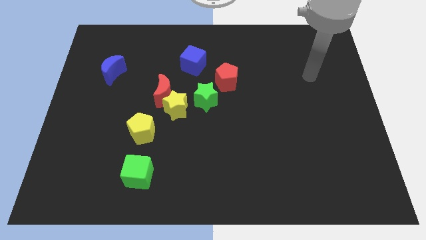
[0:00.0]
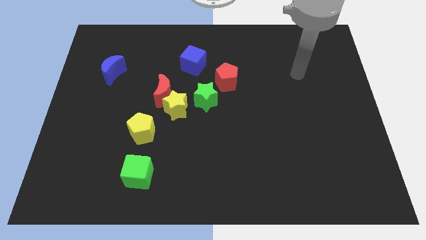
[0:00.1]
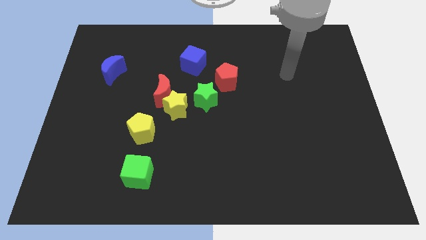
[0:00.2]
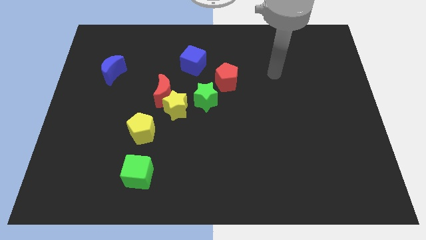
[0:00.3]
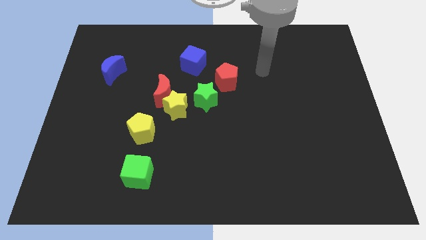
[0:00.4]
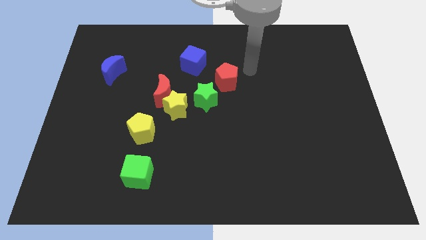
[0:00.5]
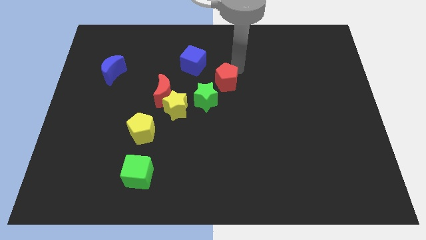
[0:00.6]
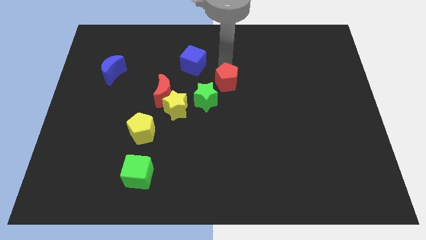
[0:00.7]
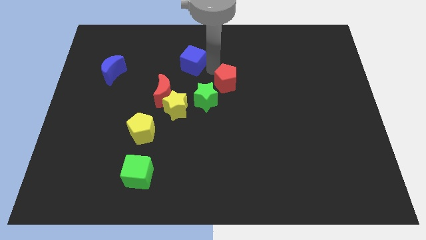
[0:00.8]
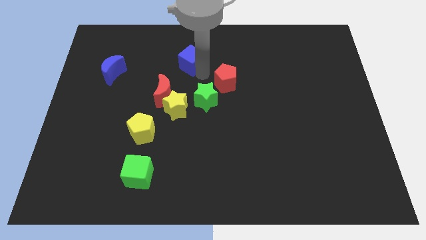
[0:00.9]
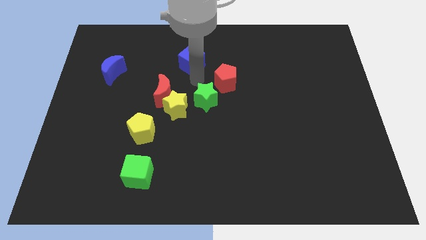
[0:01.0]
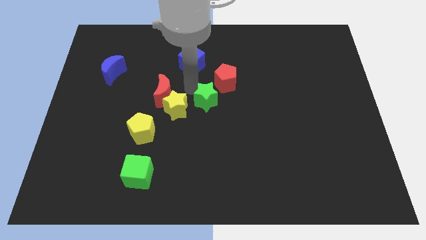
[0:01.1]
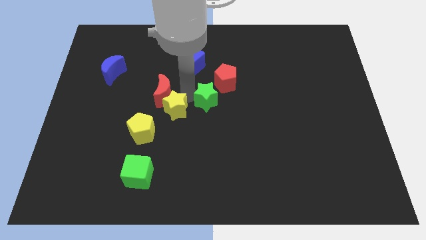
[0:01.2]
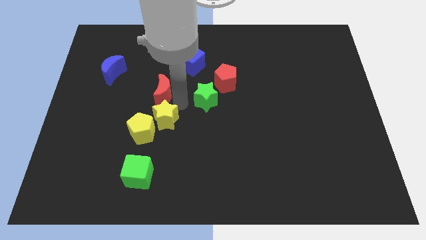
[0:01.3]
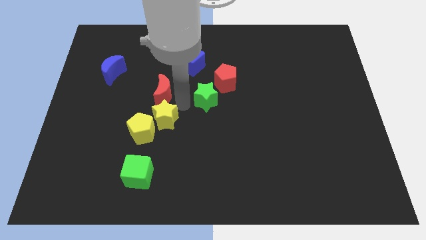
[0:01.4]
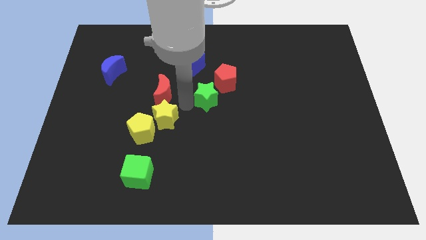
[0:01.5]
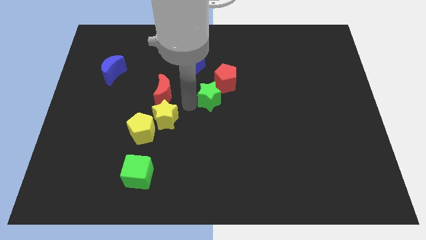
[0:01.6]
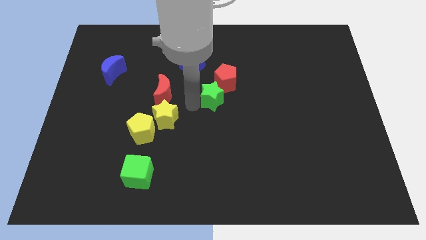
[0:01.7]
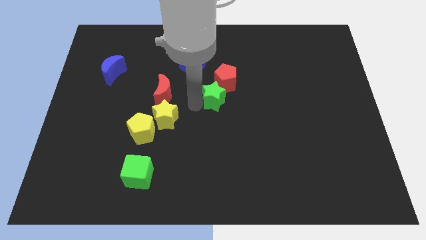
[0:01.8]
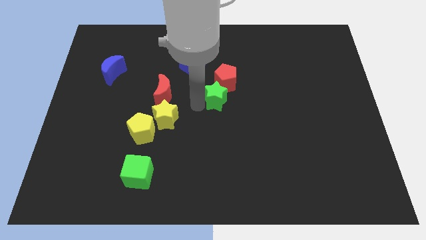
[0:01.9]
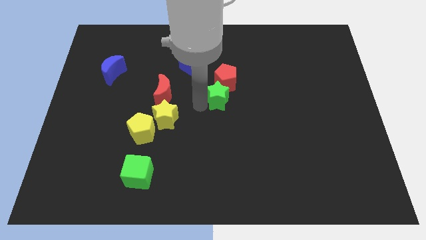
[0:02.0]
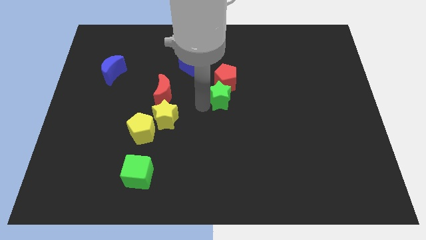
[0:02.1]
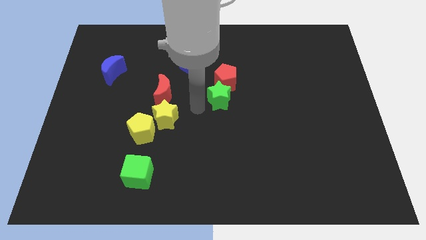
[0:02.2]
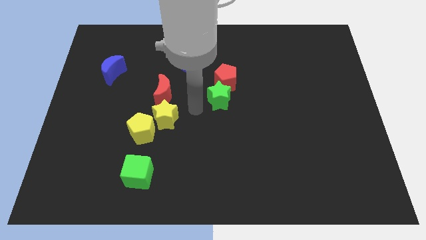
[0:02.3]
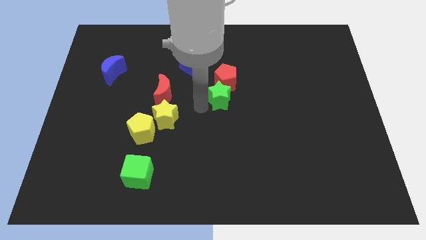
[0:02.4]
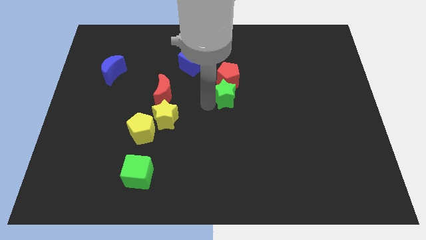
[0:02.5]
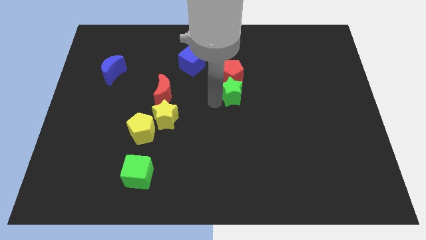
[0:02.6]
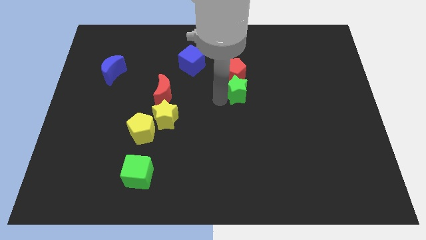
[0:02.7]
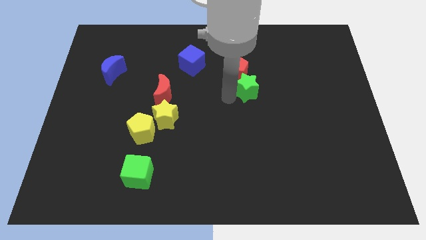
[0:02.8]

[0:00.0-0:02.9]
move the green star up and right a little bit

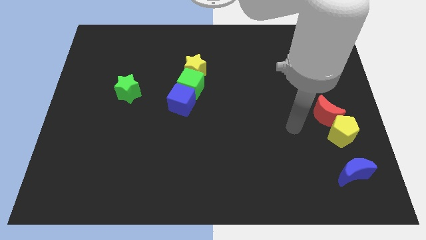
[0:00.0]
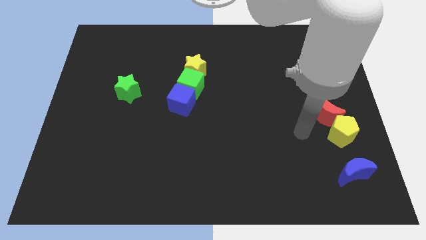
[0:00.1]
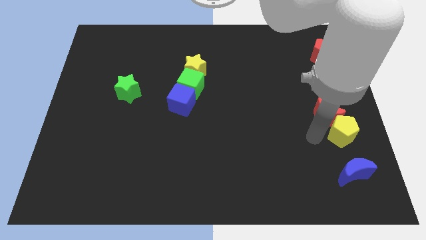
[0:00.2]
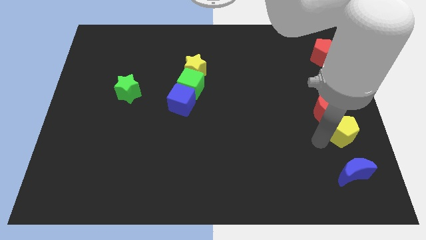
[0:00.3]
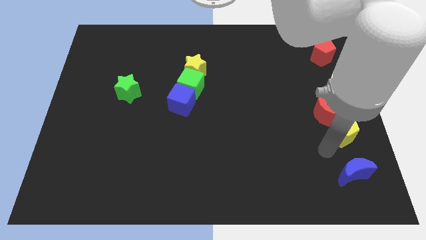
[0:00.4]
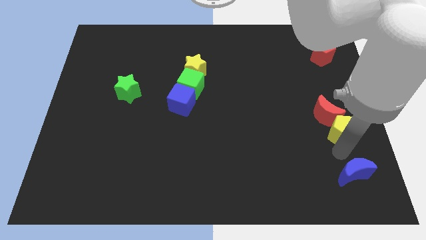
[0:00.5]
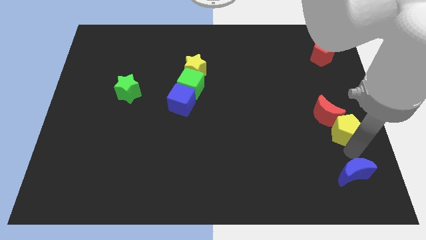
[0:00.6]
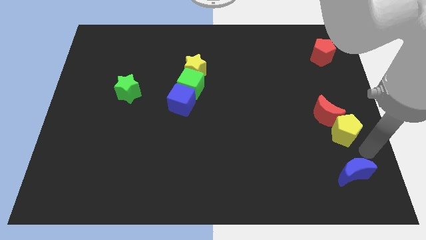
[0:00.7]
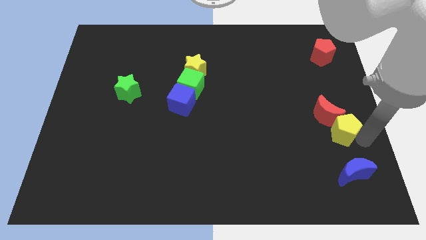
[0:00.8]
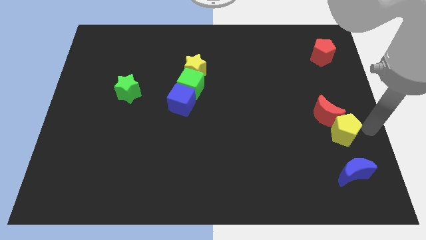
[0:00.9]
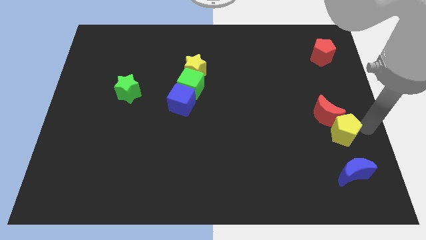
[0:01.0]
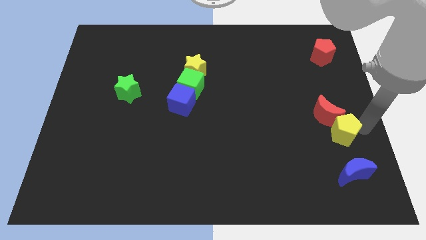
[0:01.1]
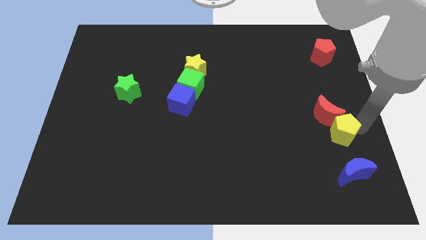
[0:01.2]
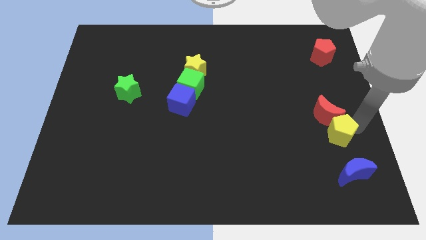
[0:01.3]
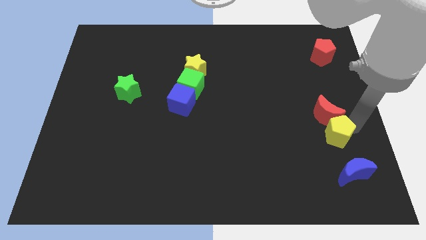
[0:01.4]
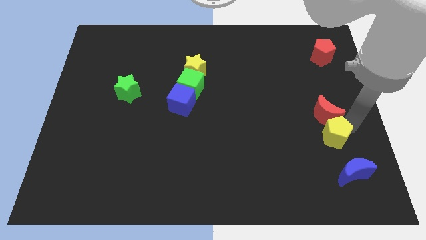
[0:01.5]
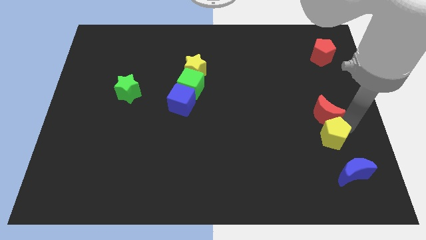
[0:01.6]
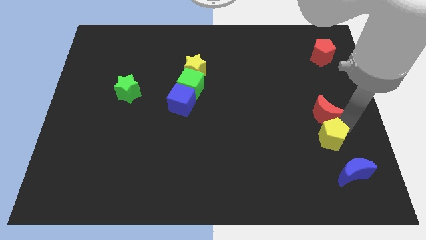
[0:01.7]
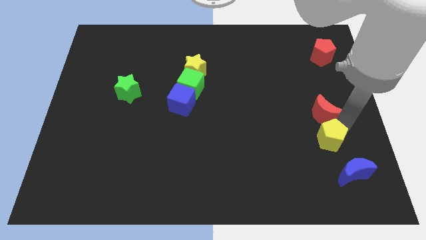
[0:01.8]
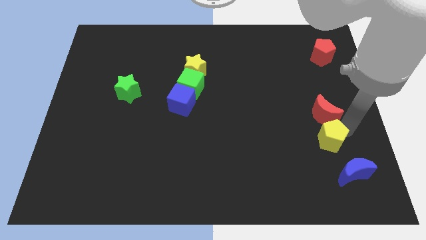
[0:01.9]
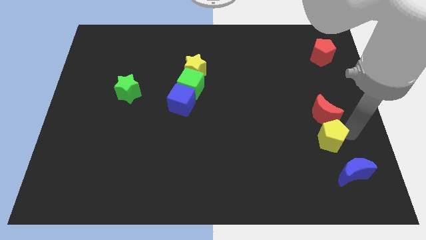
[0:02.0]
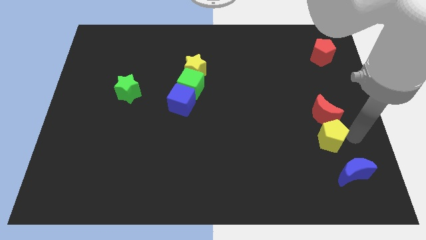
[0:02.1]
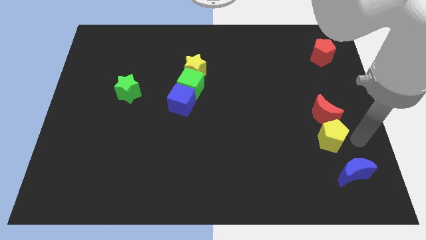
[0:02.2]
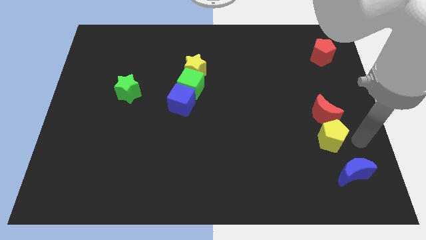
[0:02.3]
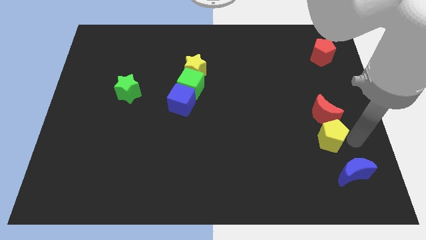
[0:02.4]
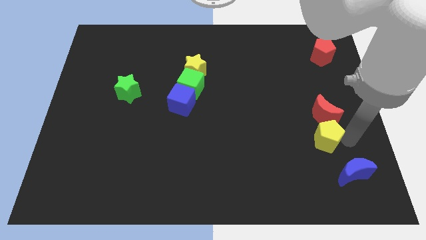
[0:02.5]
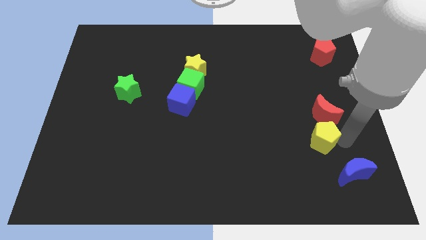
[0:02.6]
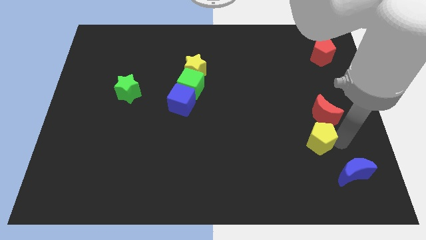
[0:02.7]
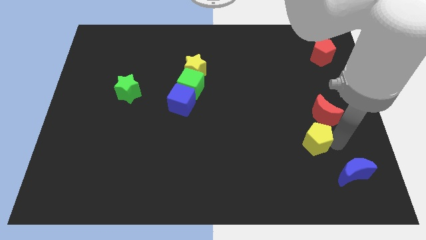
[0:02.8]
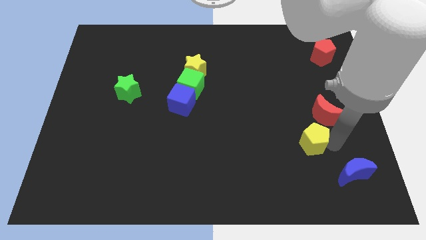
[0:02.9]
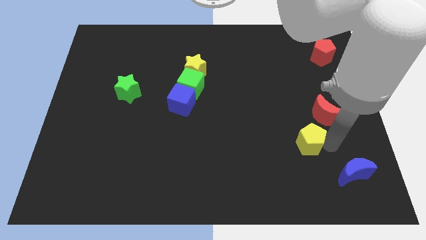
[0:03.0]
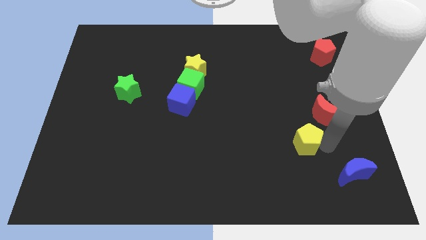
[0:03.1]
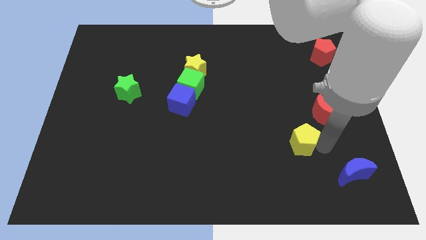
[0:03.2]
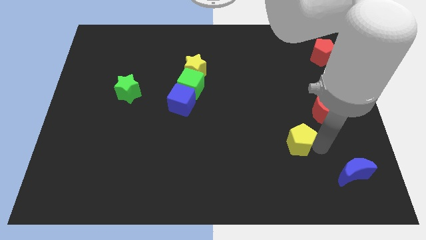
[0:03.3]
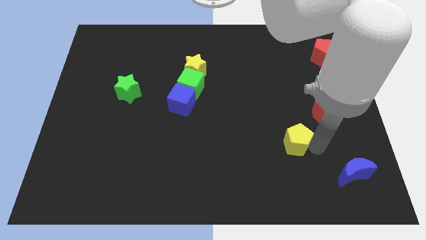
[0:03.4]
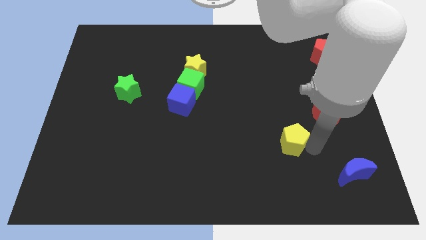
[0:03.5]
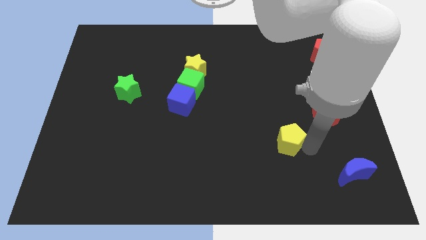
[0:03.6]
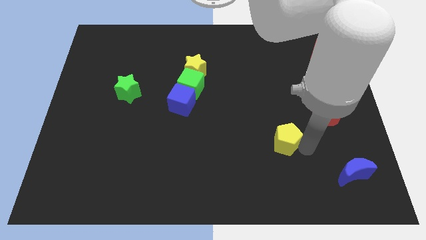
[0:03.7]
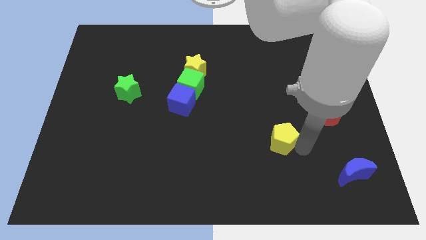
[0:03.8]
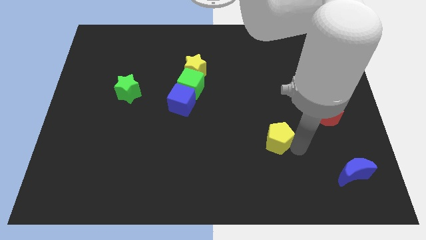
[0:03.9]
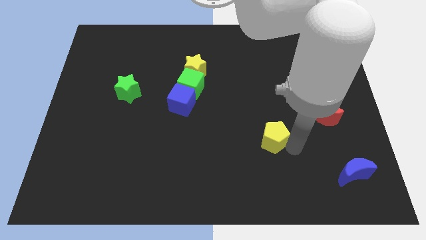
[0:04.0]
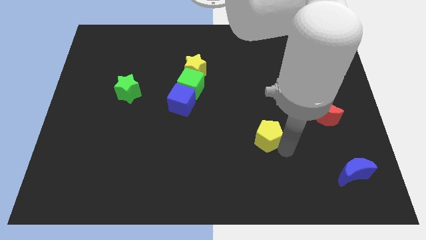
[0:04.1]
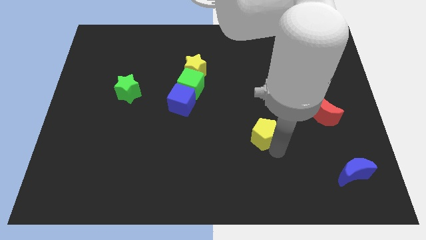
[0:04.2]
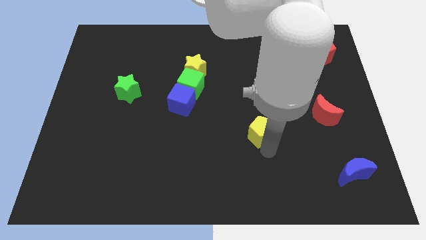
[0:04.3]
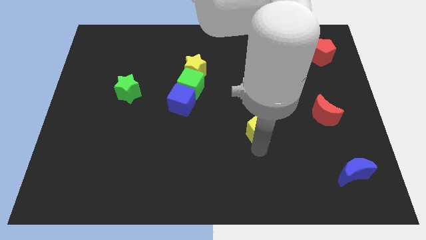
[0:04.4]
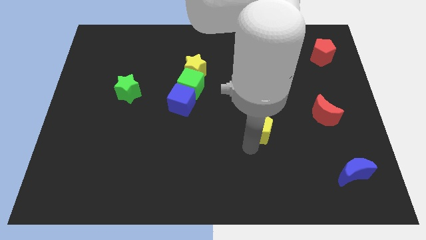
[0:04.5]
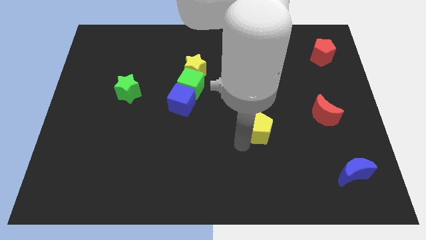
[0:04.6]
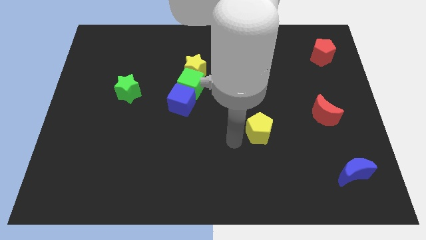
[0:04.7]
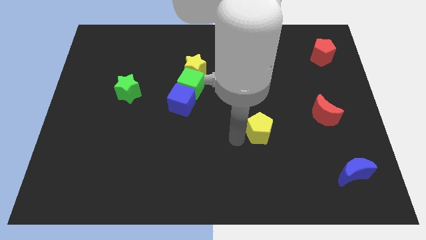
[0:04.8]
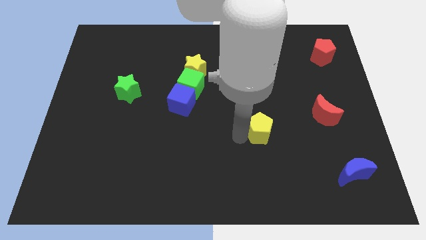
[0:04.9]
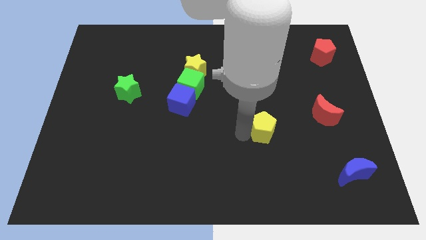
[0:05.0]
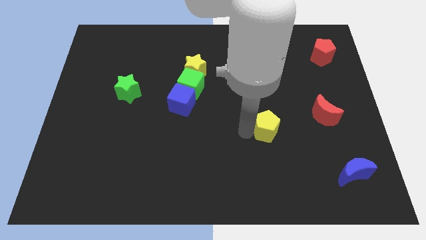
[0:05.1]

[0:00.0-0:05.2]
move the yellow pentagon up and left diagonally somewhat
